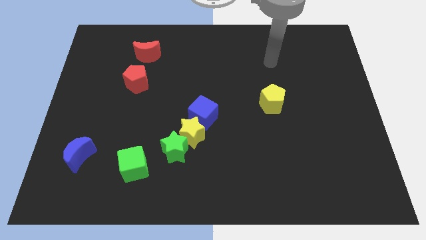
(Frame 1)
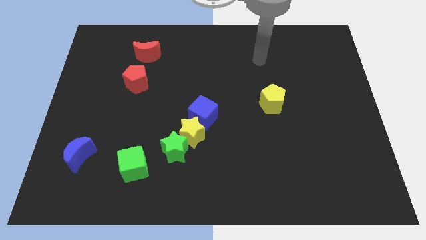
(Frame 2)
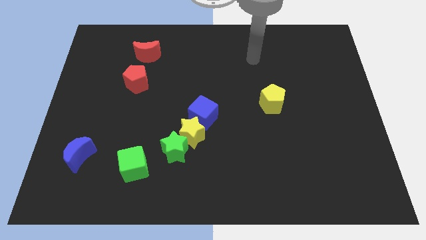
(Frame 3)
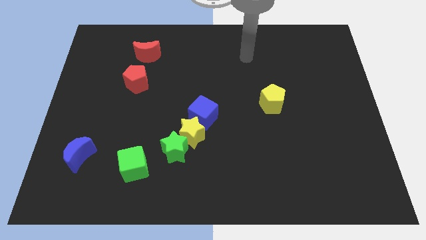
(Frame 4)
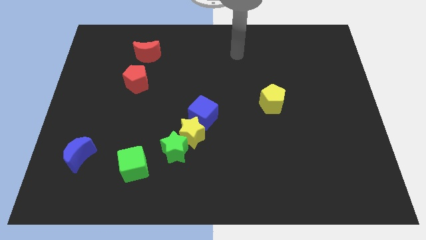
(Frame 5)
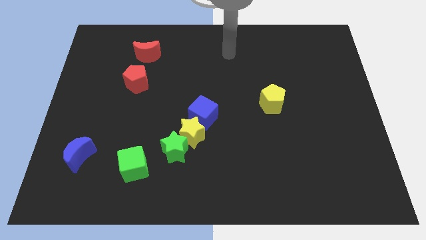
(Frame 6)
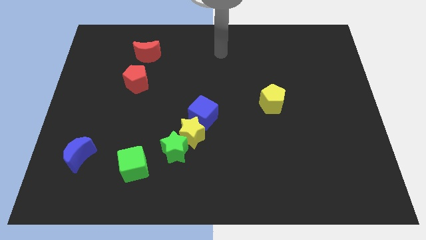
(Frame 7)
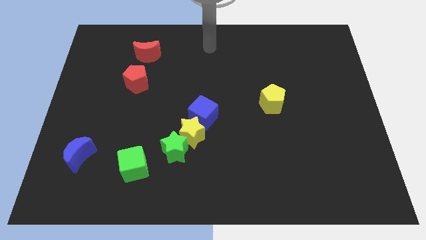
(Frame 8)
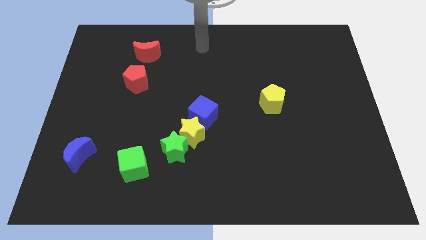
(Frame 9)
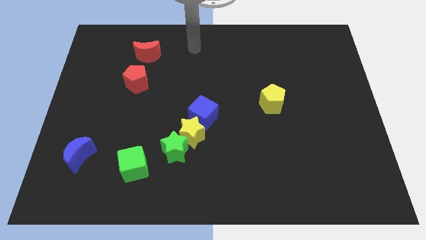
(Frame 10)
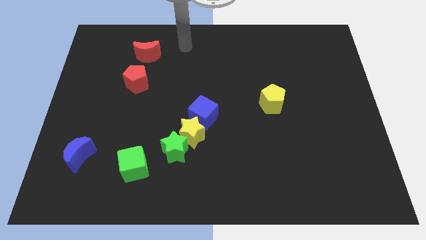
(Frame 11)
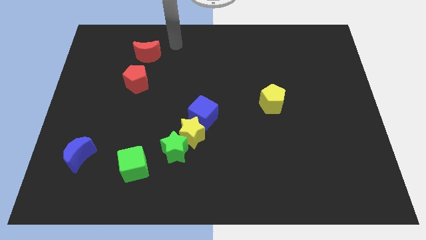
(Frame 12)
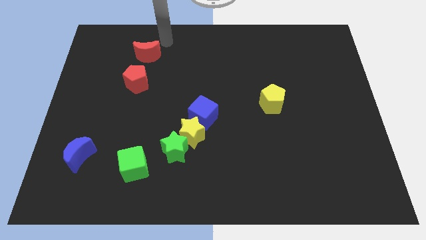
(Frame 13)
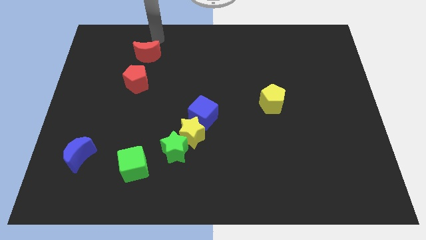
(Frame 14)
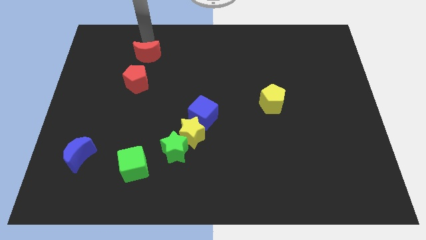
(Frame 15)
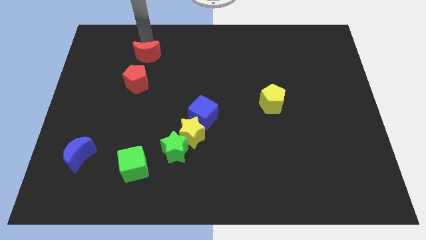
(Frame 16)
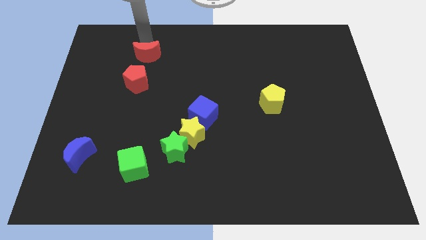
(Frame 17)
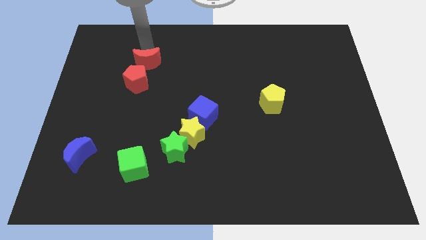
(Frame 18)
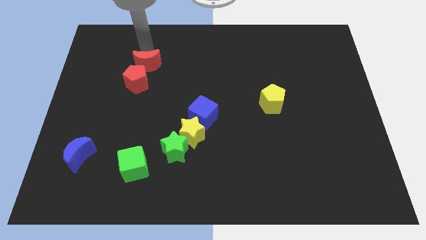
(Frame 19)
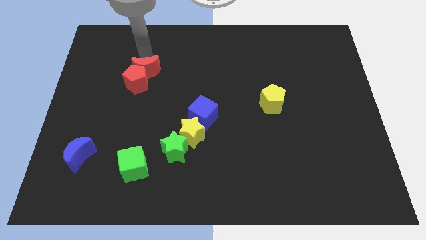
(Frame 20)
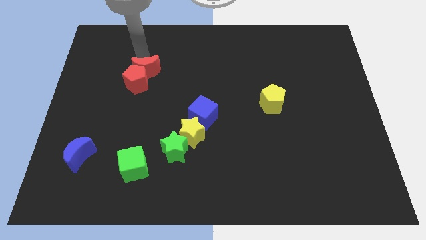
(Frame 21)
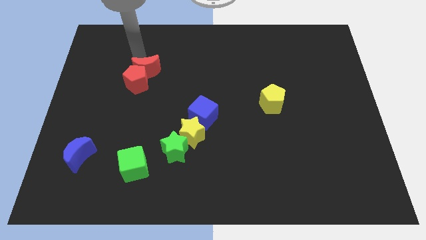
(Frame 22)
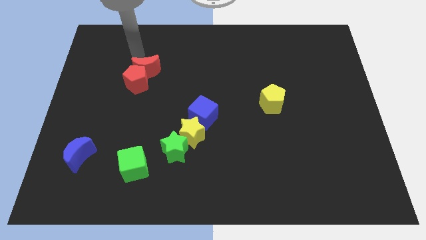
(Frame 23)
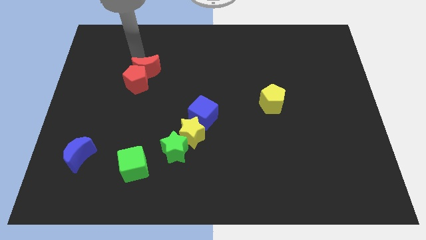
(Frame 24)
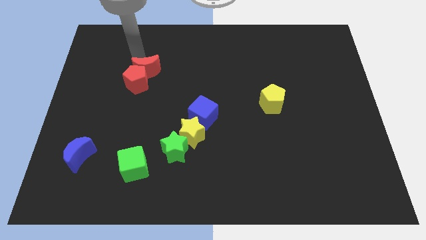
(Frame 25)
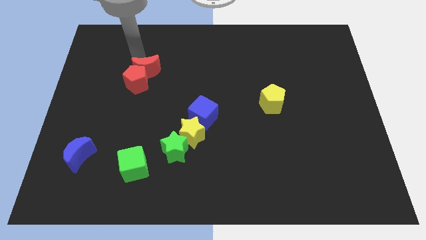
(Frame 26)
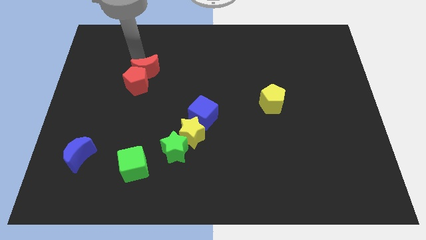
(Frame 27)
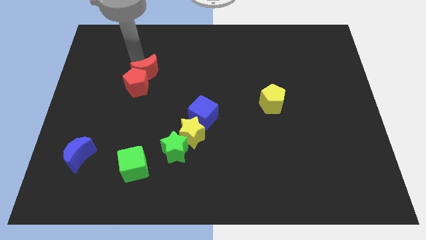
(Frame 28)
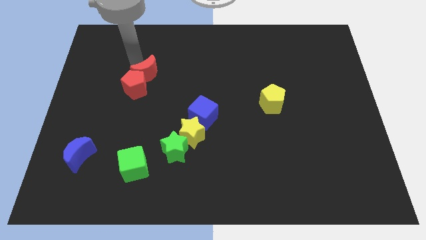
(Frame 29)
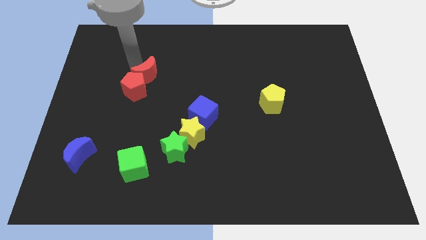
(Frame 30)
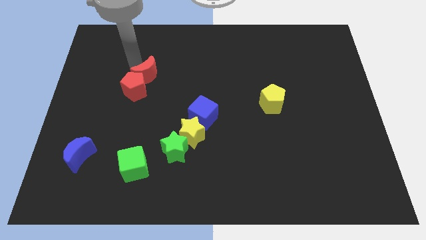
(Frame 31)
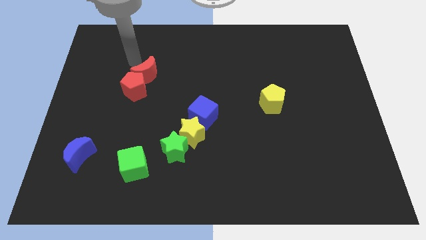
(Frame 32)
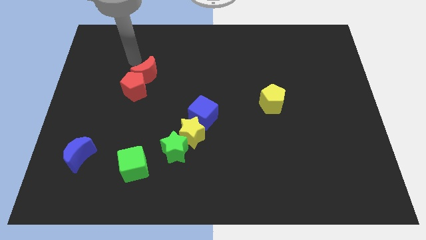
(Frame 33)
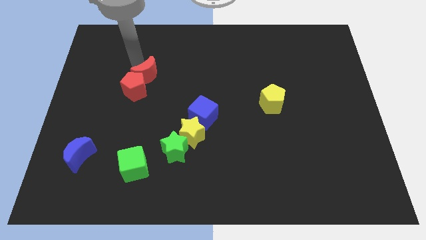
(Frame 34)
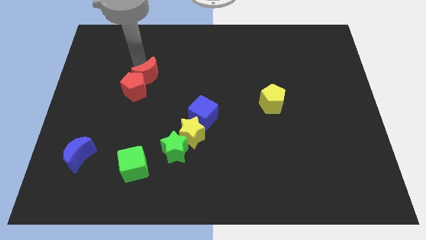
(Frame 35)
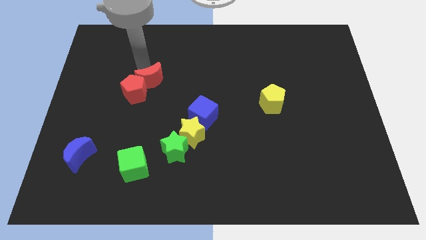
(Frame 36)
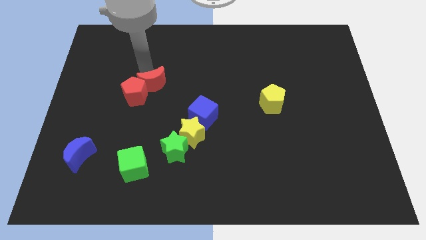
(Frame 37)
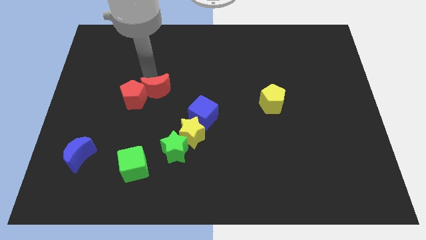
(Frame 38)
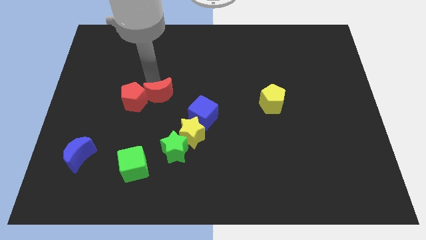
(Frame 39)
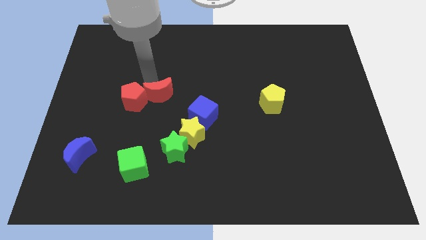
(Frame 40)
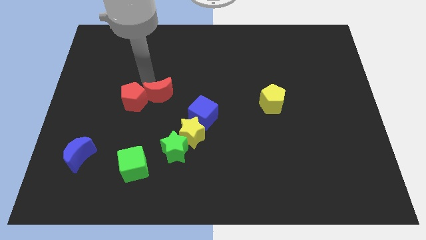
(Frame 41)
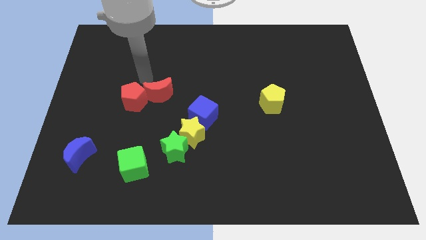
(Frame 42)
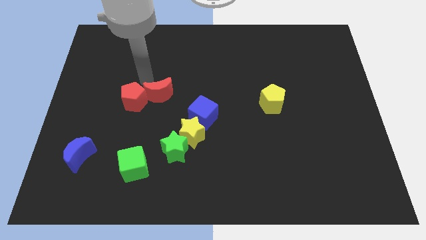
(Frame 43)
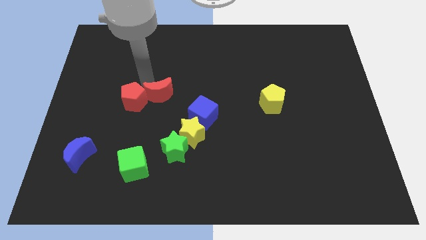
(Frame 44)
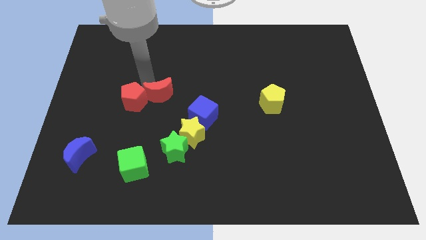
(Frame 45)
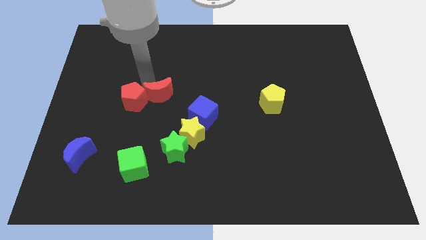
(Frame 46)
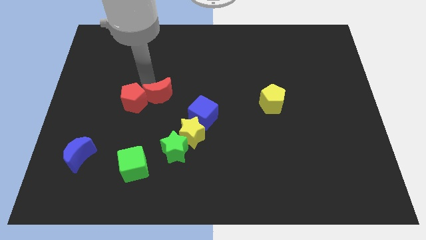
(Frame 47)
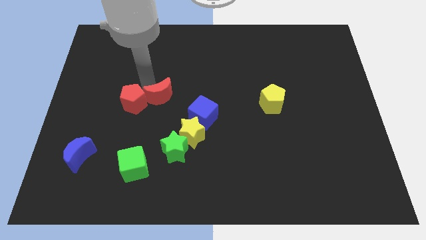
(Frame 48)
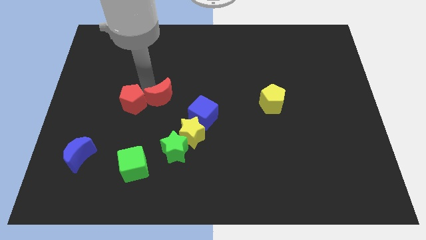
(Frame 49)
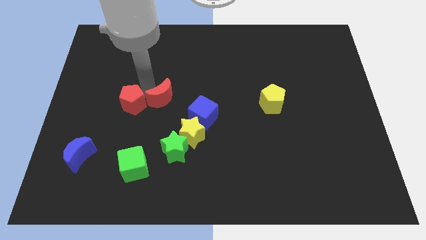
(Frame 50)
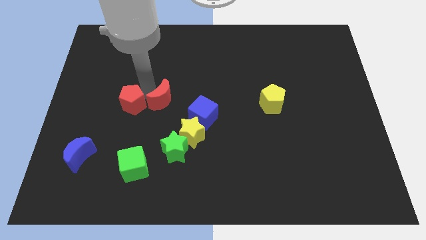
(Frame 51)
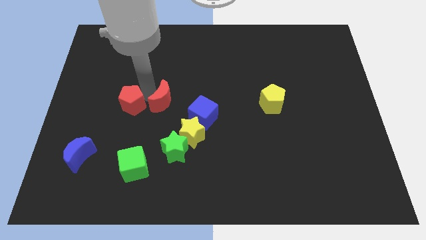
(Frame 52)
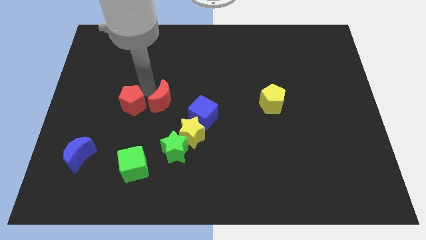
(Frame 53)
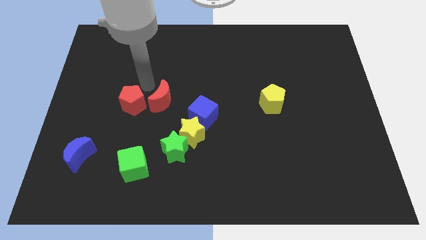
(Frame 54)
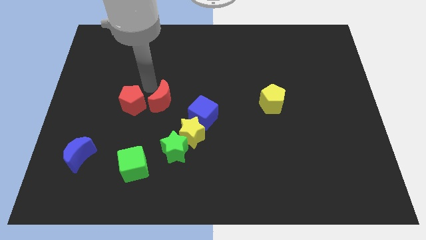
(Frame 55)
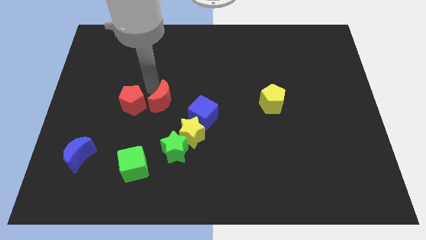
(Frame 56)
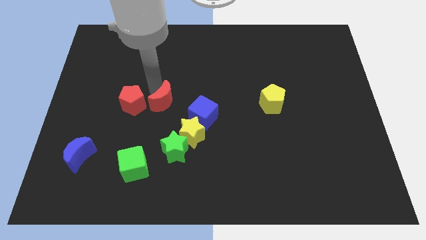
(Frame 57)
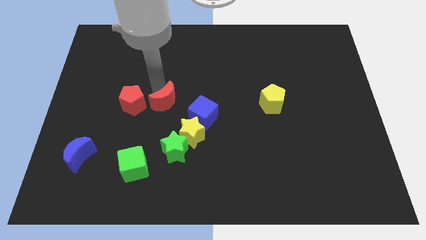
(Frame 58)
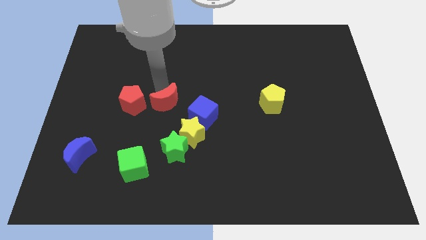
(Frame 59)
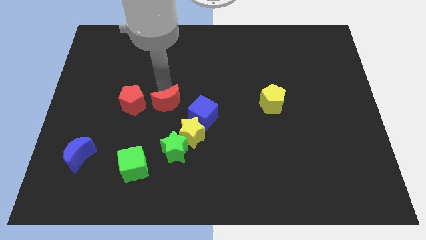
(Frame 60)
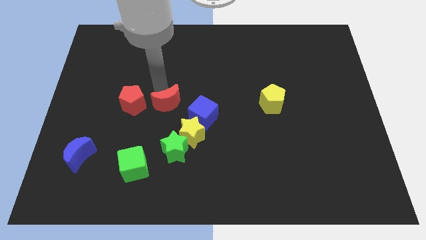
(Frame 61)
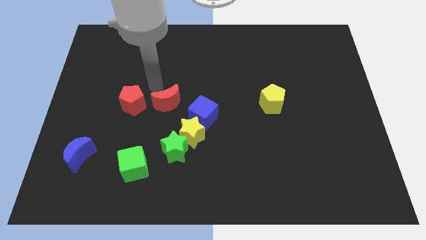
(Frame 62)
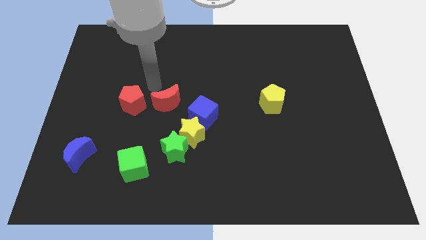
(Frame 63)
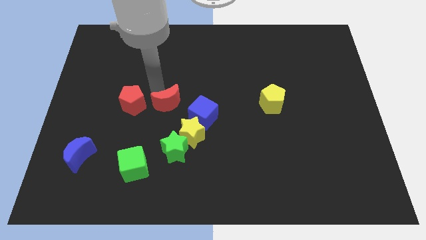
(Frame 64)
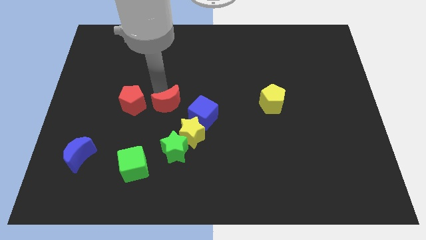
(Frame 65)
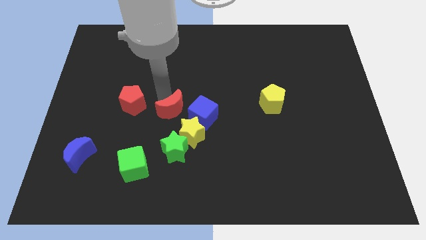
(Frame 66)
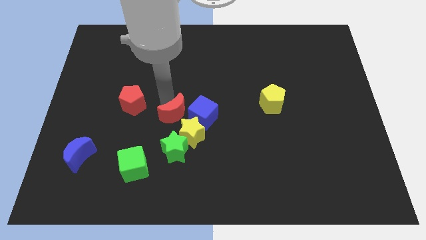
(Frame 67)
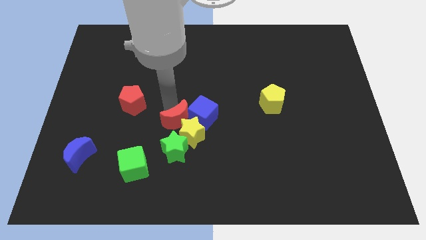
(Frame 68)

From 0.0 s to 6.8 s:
push the red moon close to the yellow star
